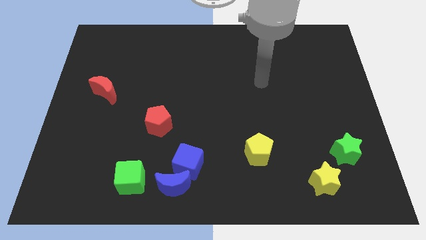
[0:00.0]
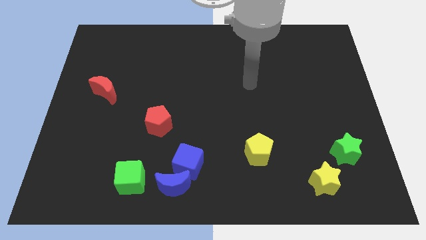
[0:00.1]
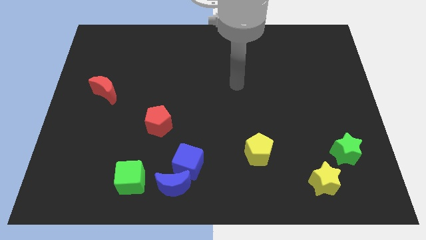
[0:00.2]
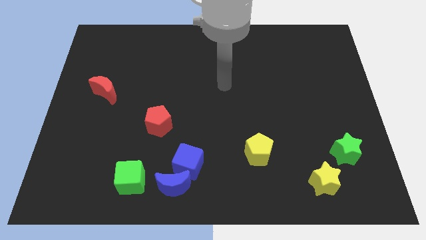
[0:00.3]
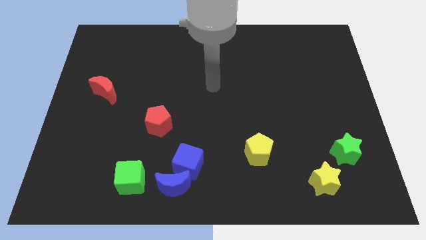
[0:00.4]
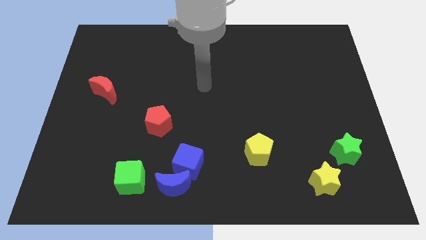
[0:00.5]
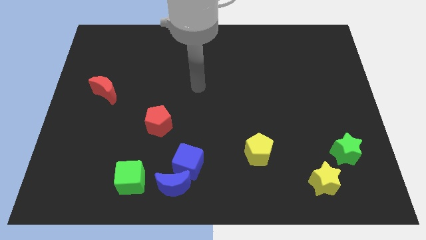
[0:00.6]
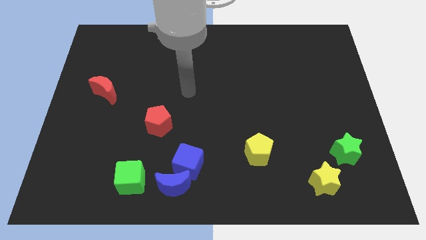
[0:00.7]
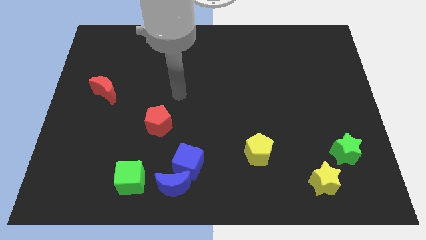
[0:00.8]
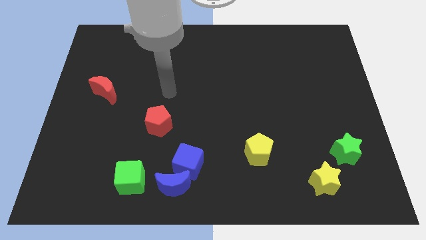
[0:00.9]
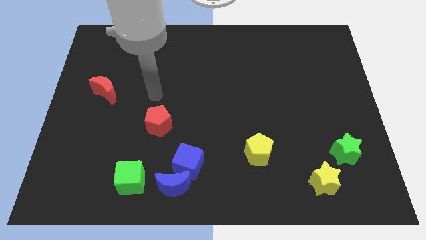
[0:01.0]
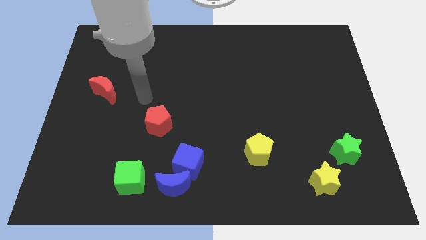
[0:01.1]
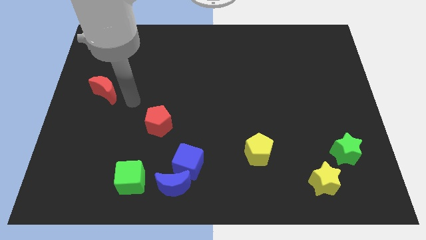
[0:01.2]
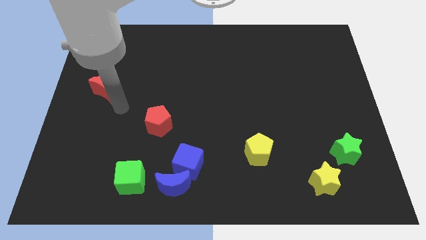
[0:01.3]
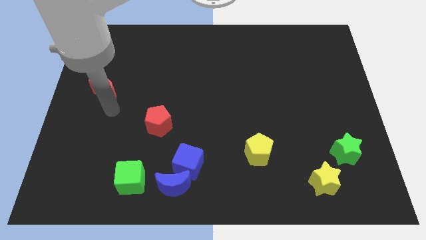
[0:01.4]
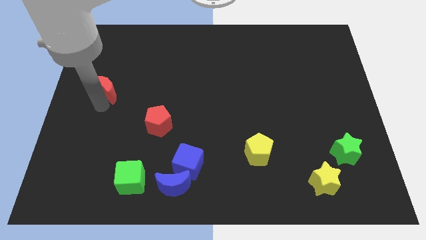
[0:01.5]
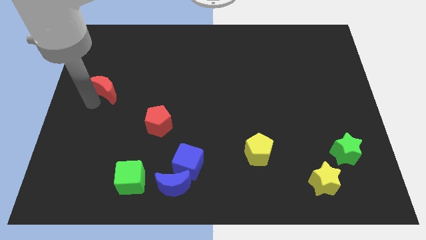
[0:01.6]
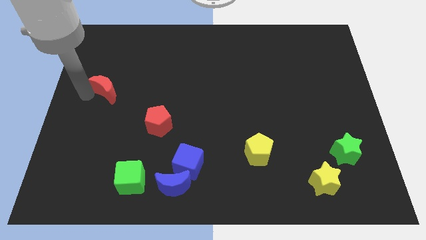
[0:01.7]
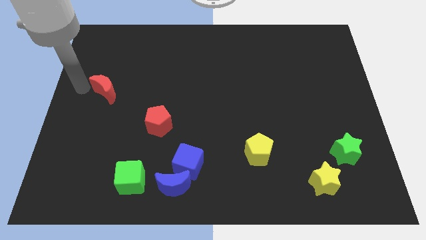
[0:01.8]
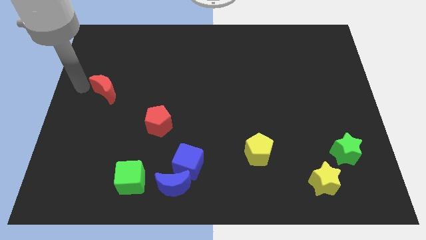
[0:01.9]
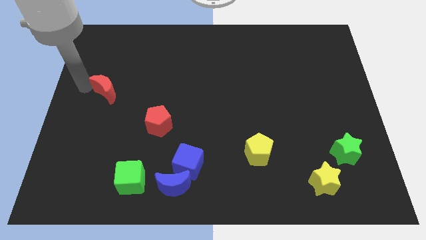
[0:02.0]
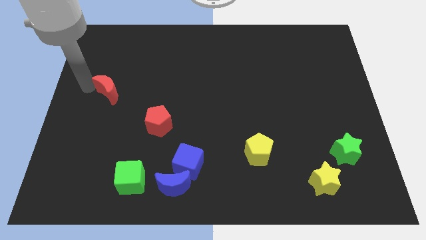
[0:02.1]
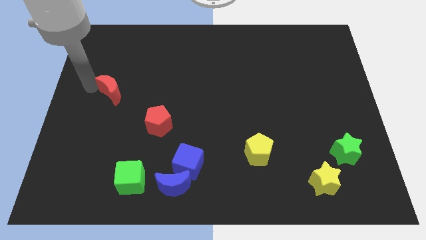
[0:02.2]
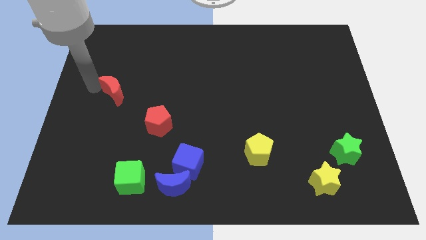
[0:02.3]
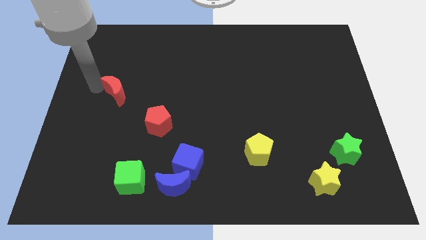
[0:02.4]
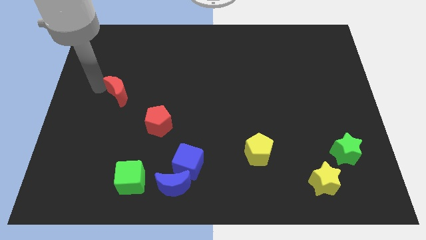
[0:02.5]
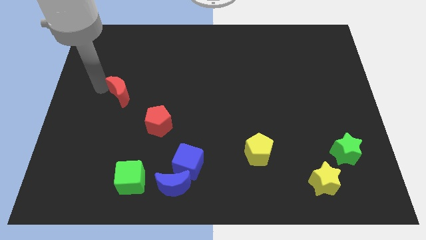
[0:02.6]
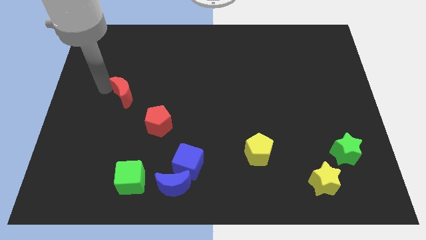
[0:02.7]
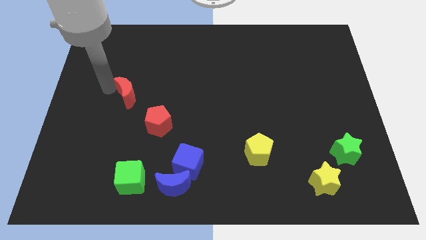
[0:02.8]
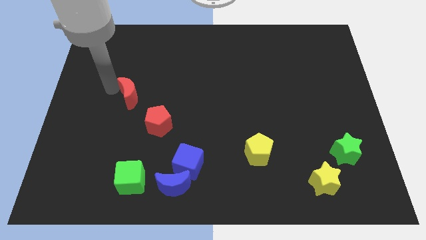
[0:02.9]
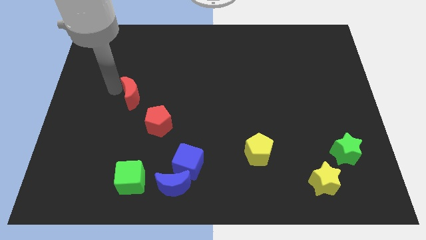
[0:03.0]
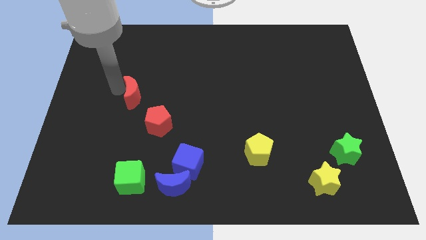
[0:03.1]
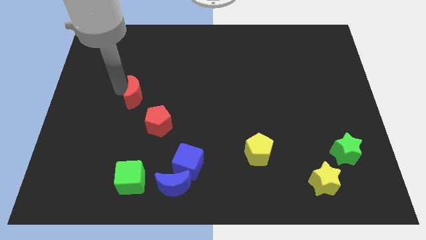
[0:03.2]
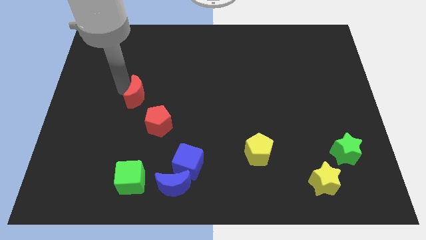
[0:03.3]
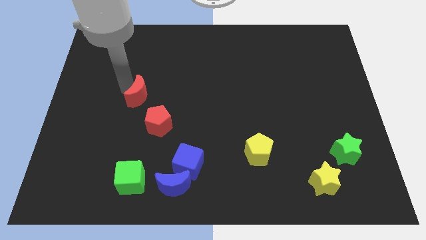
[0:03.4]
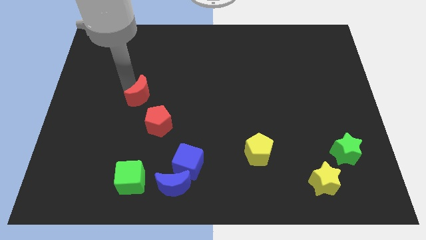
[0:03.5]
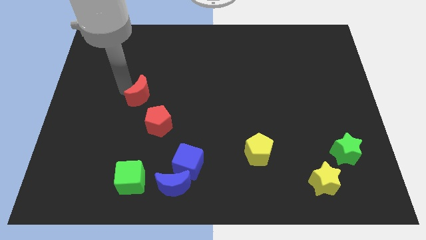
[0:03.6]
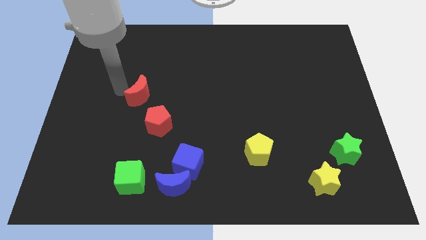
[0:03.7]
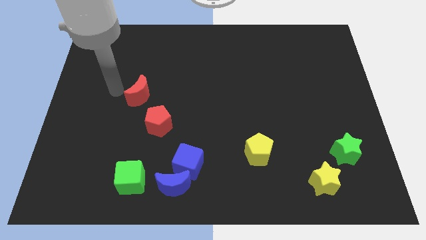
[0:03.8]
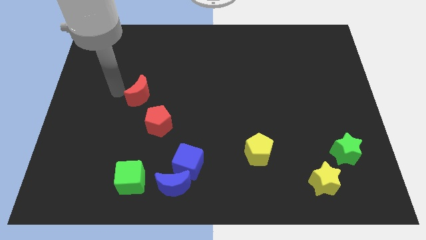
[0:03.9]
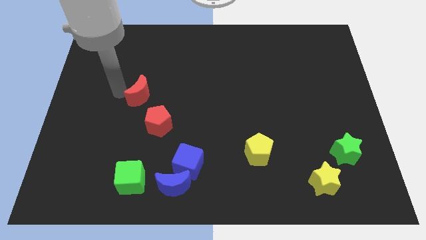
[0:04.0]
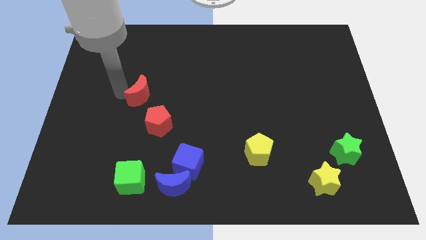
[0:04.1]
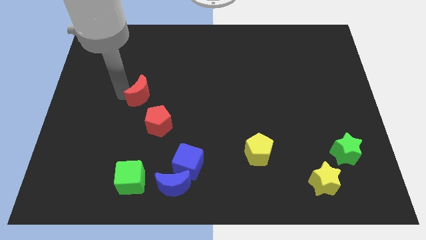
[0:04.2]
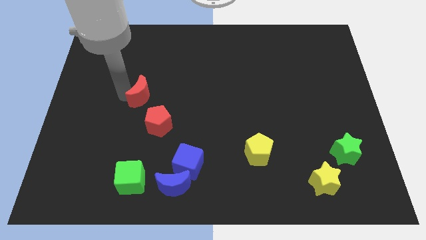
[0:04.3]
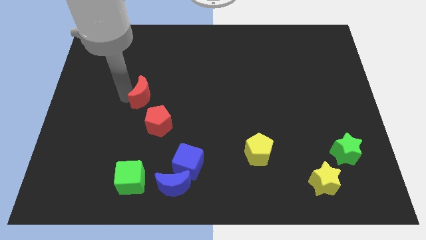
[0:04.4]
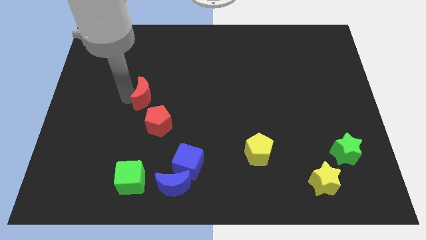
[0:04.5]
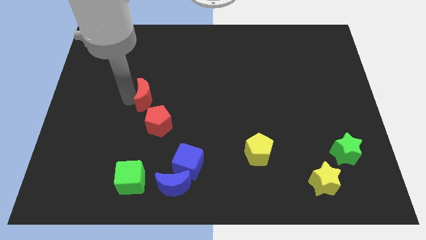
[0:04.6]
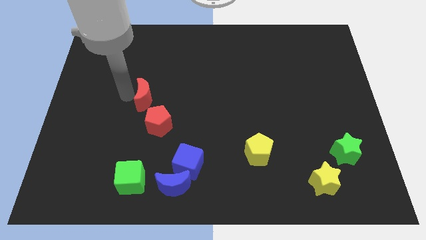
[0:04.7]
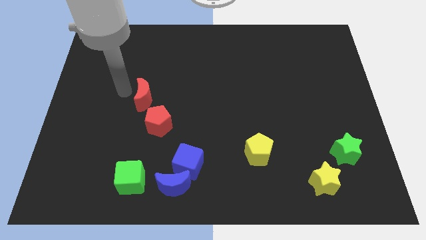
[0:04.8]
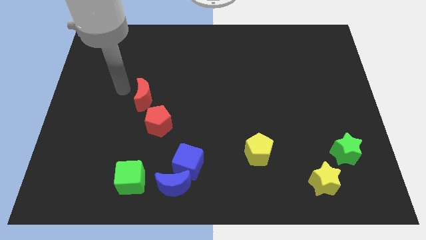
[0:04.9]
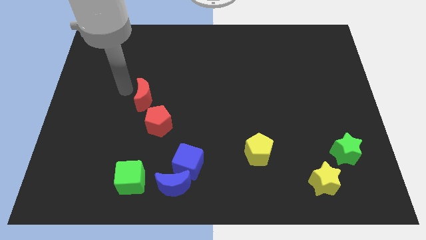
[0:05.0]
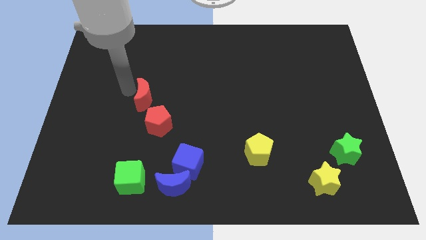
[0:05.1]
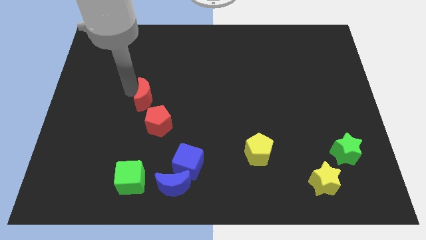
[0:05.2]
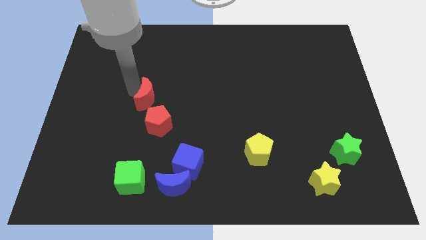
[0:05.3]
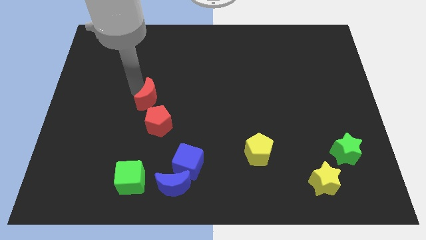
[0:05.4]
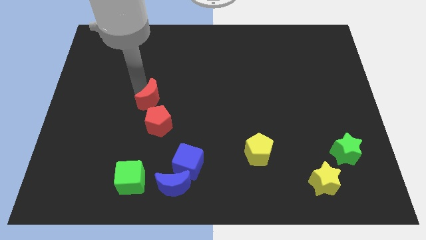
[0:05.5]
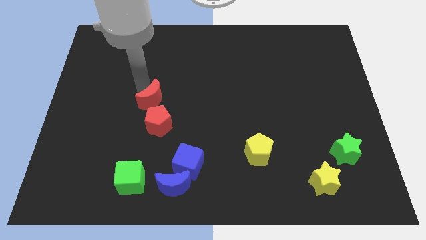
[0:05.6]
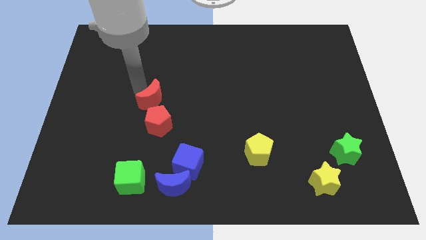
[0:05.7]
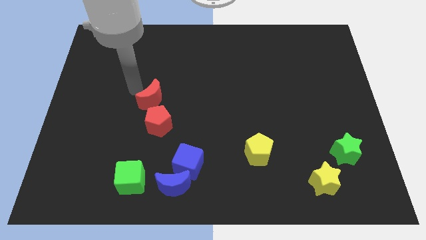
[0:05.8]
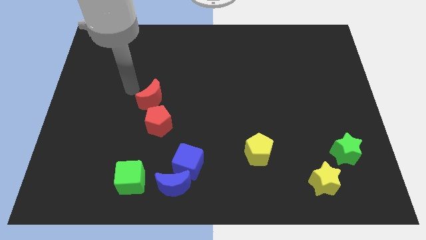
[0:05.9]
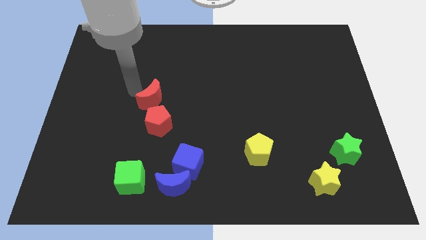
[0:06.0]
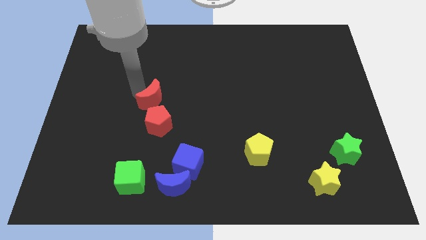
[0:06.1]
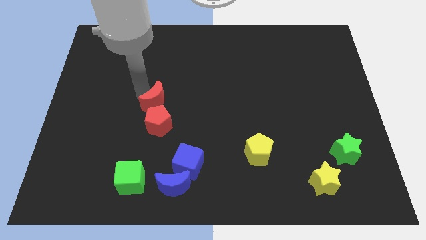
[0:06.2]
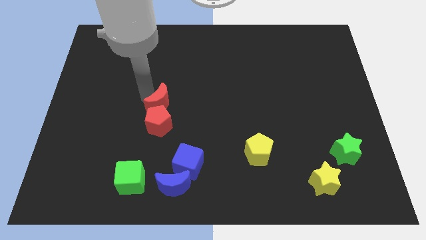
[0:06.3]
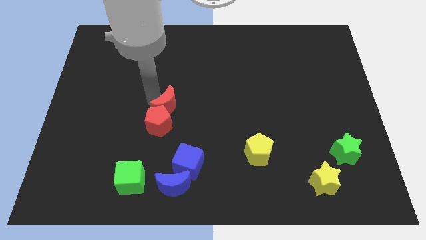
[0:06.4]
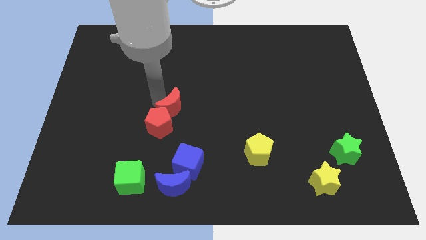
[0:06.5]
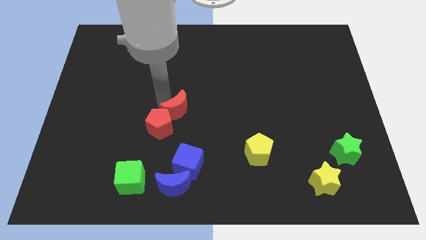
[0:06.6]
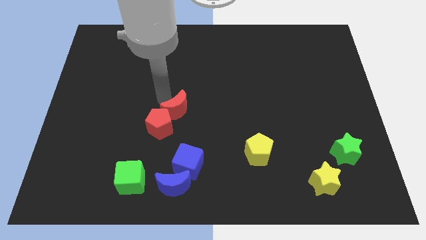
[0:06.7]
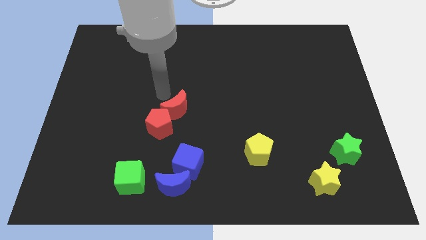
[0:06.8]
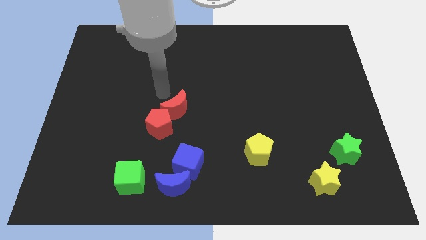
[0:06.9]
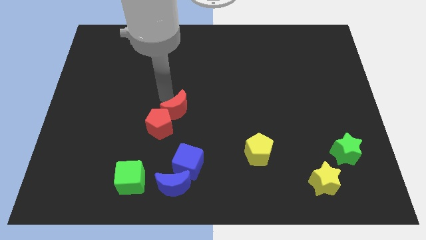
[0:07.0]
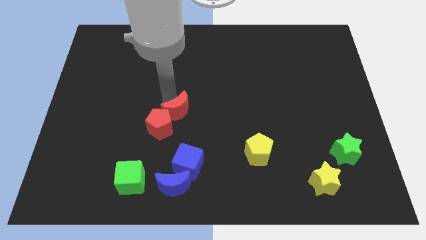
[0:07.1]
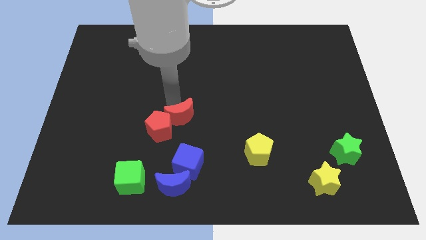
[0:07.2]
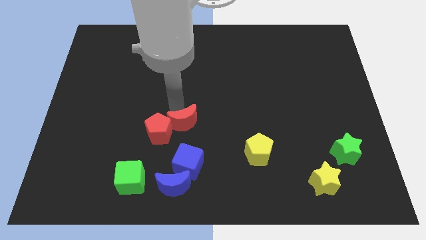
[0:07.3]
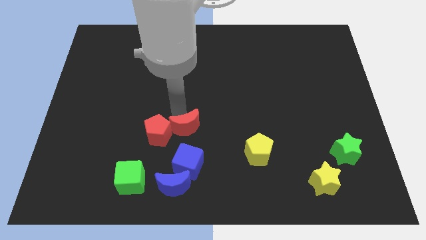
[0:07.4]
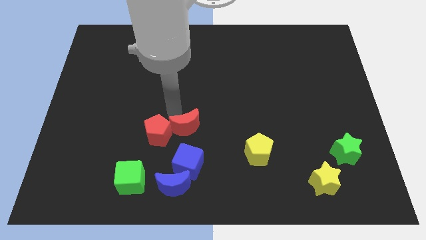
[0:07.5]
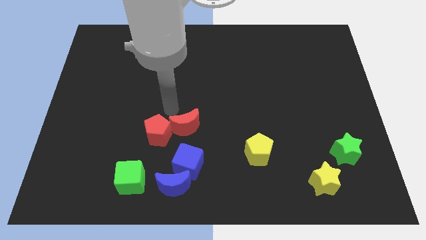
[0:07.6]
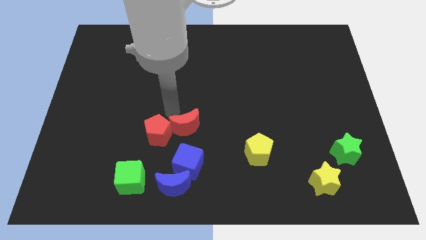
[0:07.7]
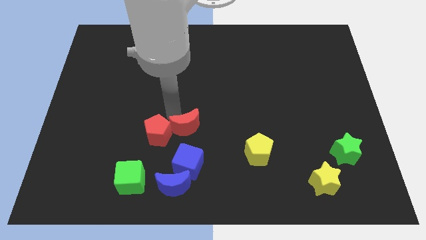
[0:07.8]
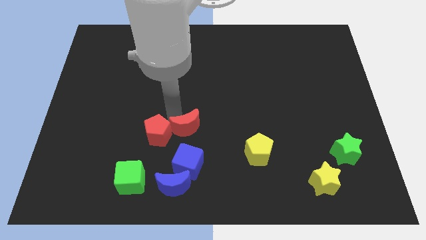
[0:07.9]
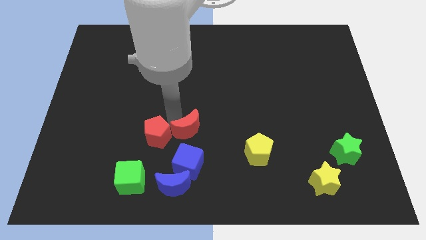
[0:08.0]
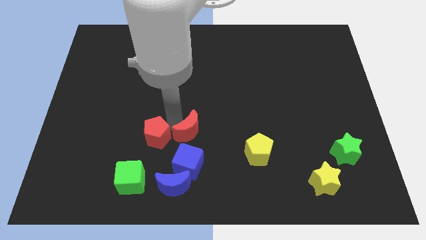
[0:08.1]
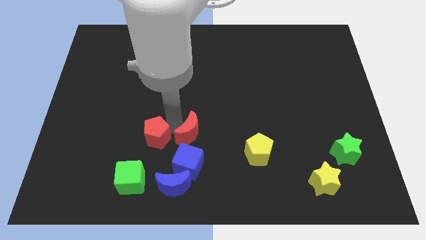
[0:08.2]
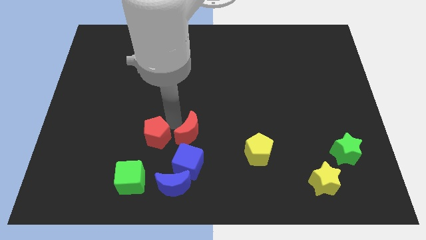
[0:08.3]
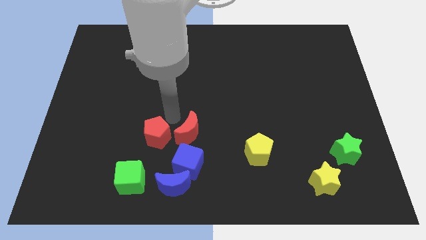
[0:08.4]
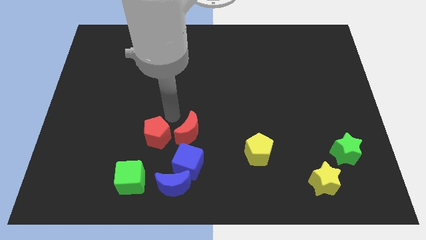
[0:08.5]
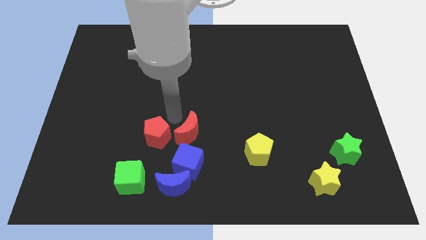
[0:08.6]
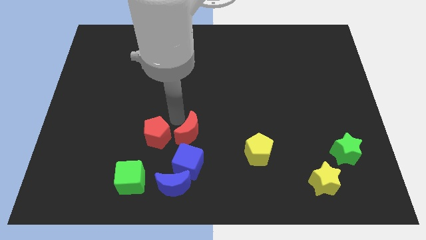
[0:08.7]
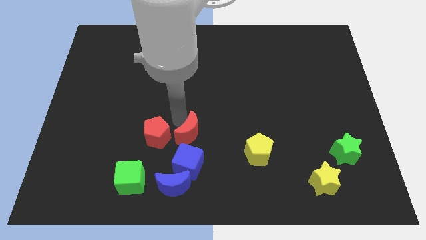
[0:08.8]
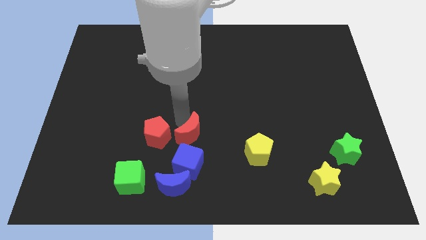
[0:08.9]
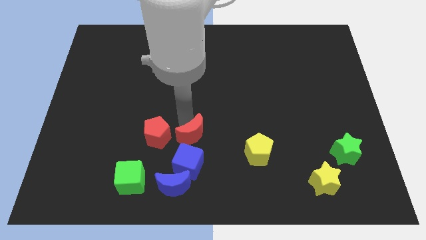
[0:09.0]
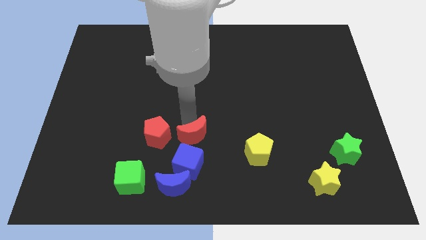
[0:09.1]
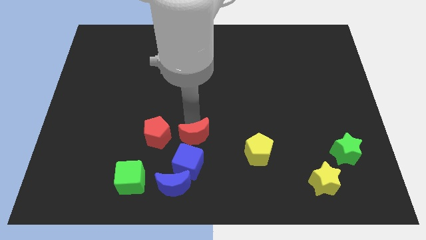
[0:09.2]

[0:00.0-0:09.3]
move the red moon to the left side of the yellow pentagon
